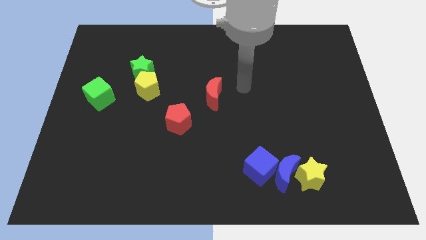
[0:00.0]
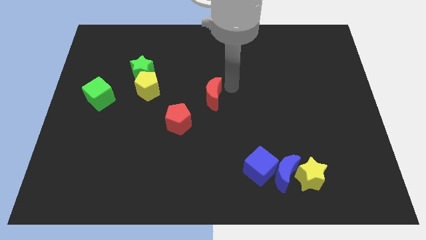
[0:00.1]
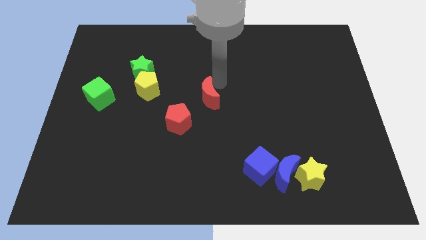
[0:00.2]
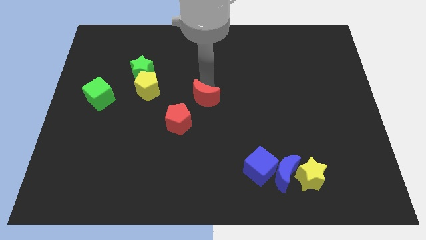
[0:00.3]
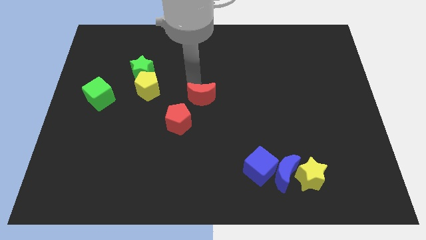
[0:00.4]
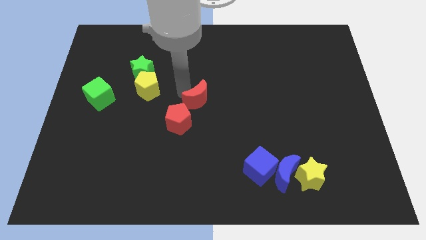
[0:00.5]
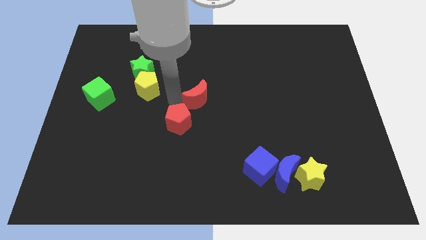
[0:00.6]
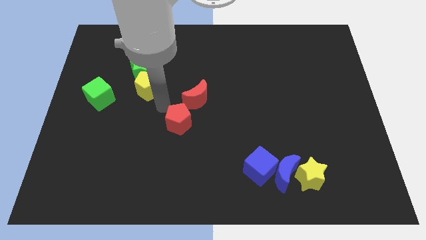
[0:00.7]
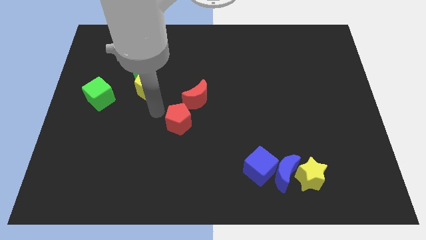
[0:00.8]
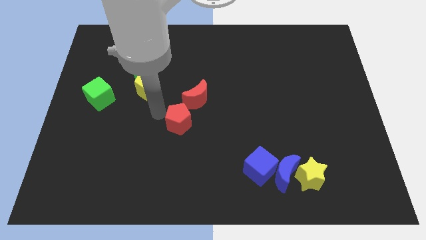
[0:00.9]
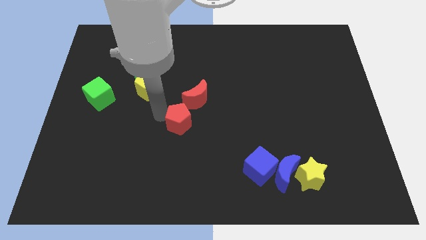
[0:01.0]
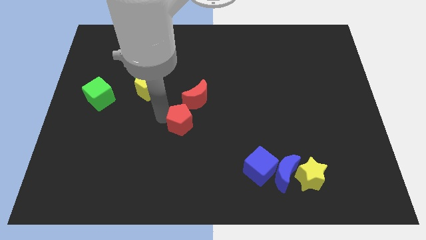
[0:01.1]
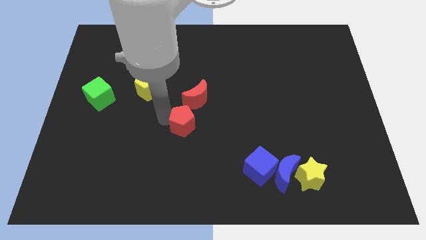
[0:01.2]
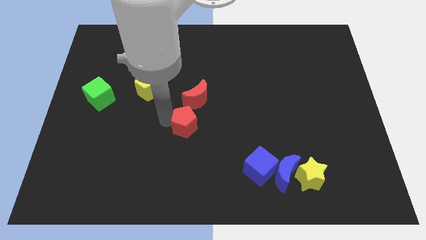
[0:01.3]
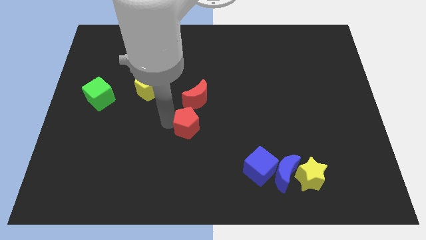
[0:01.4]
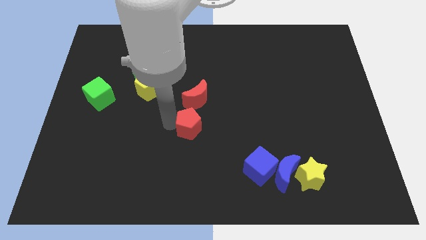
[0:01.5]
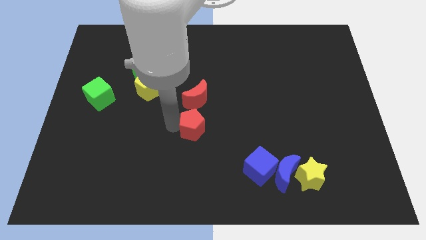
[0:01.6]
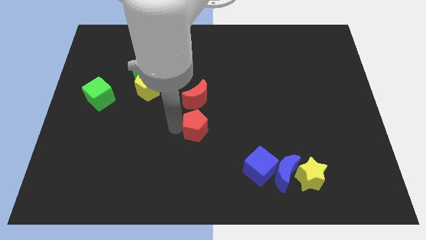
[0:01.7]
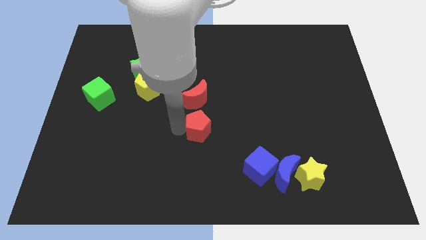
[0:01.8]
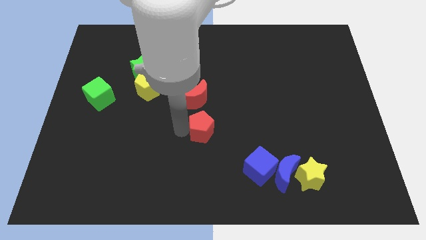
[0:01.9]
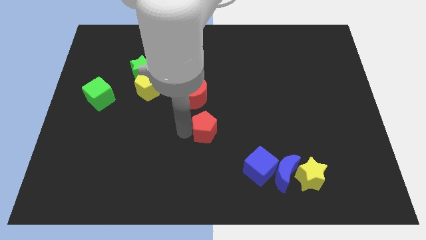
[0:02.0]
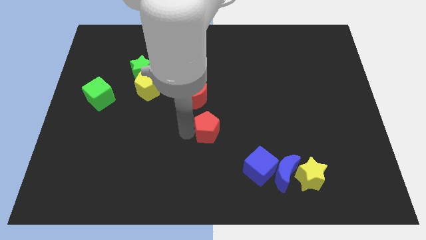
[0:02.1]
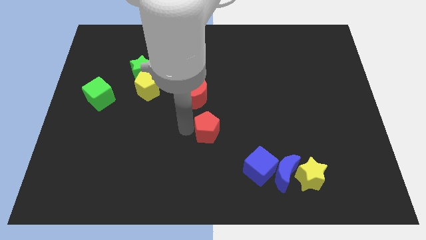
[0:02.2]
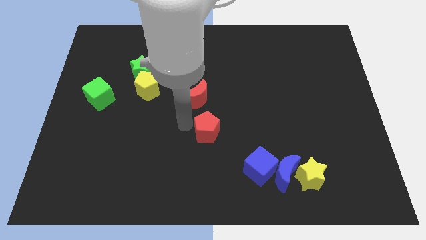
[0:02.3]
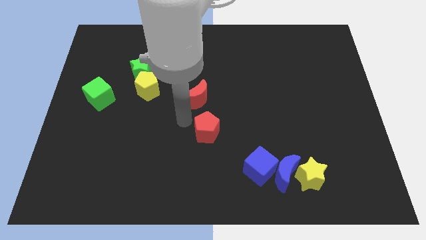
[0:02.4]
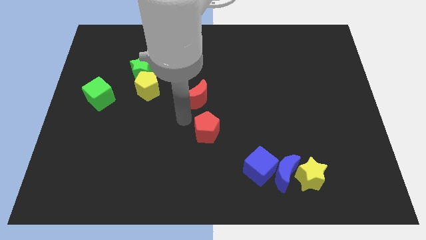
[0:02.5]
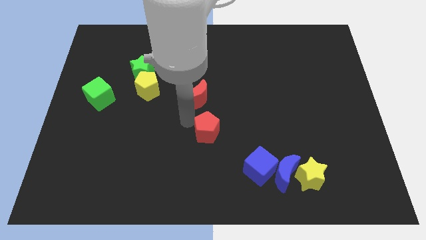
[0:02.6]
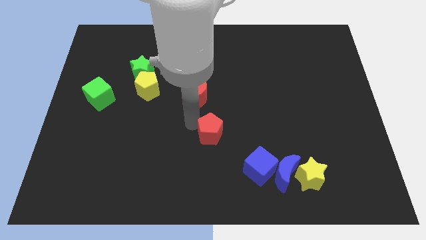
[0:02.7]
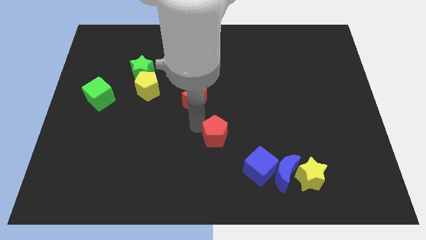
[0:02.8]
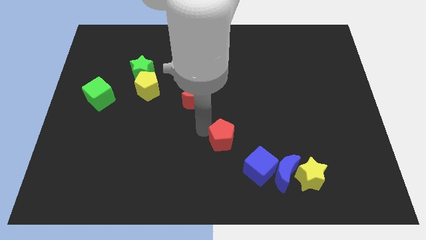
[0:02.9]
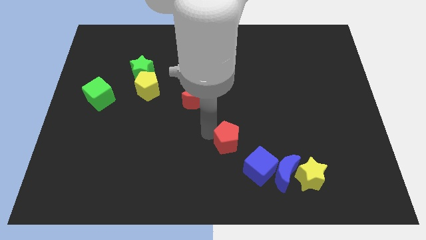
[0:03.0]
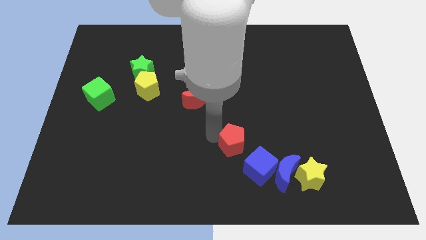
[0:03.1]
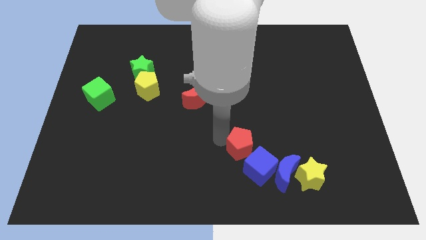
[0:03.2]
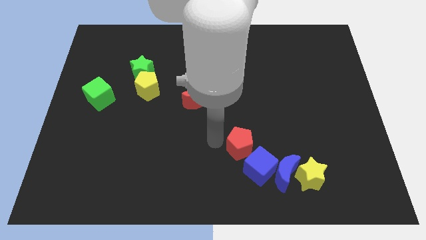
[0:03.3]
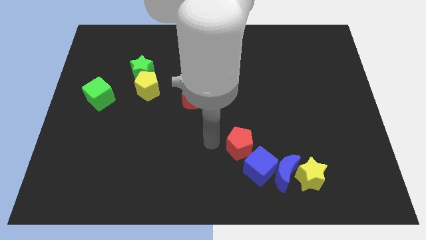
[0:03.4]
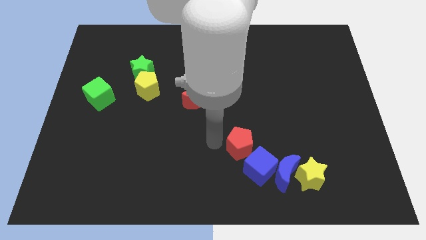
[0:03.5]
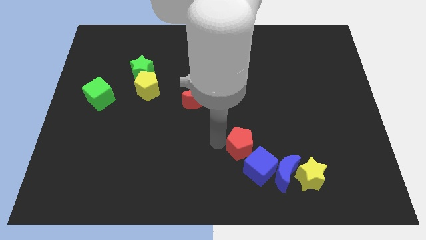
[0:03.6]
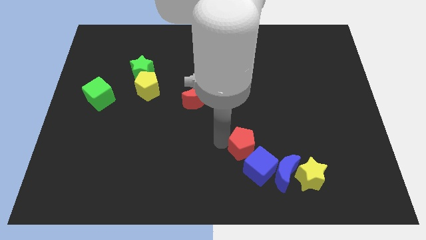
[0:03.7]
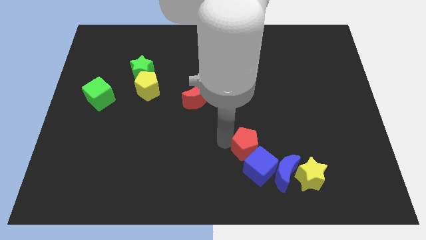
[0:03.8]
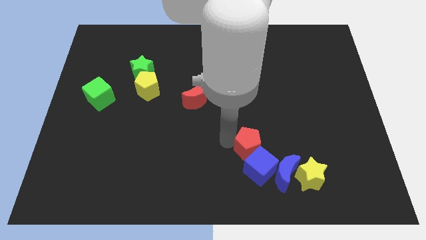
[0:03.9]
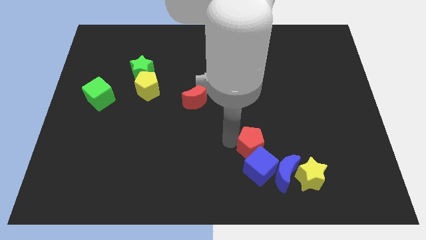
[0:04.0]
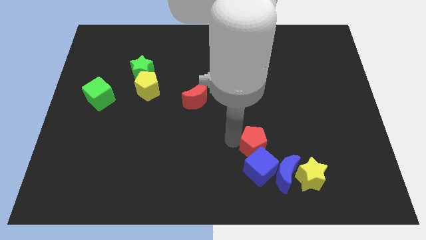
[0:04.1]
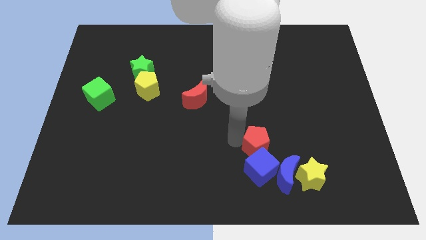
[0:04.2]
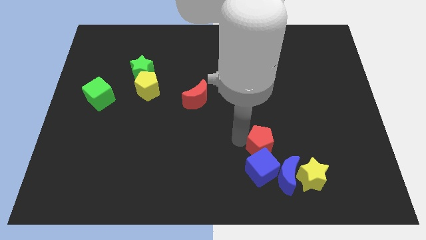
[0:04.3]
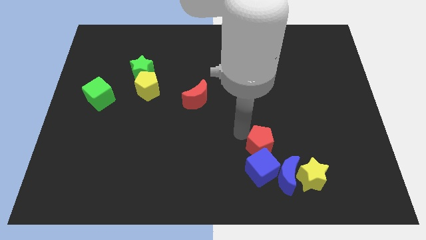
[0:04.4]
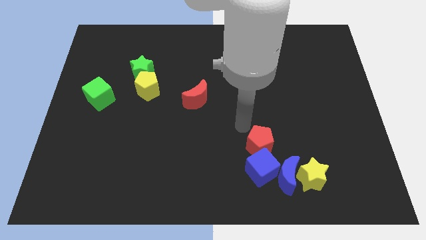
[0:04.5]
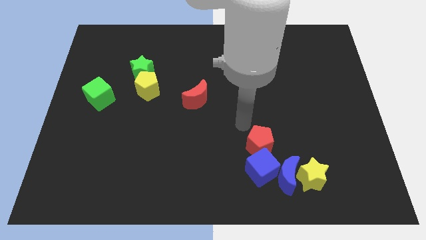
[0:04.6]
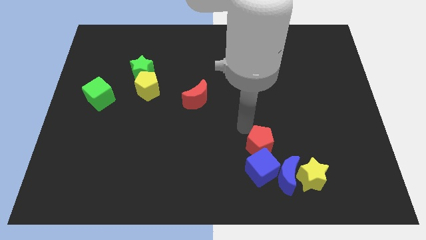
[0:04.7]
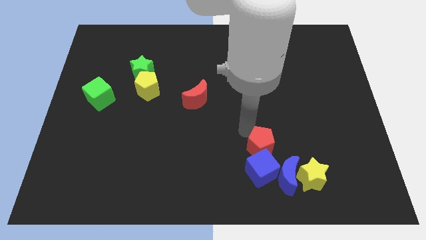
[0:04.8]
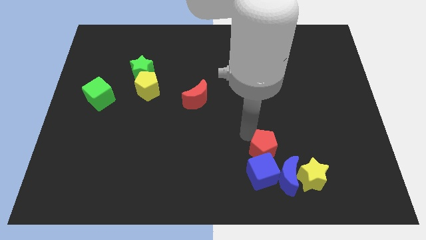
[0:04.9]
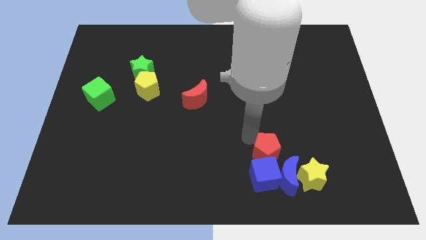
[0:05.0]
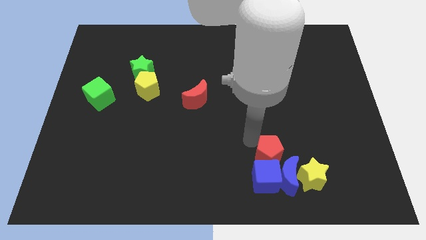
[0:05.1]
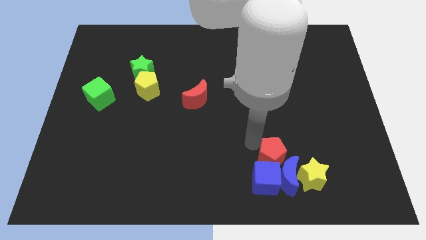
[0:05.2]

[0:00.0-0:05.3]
put the red pentagon to the blue moon

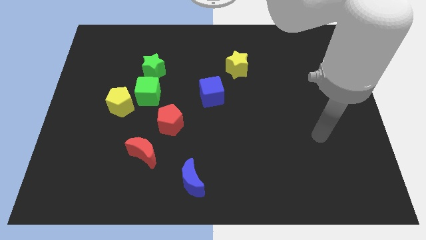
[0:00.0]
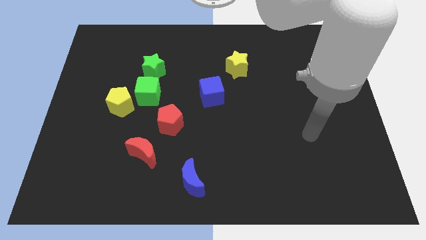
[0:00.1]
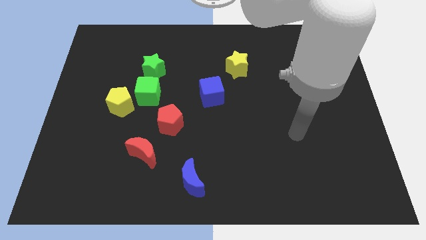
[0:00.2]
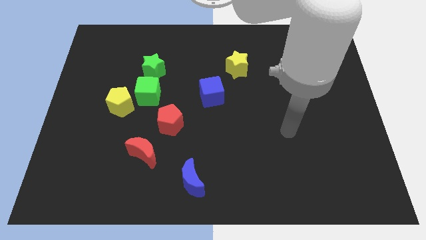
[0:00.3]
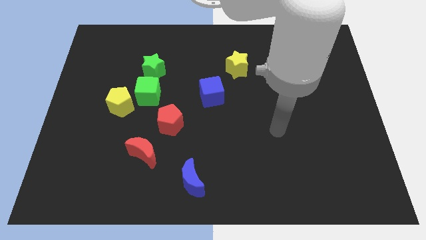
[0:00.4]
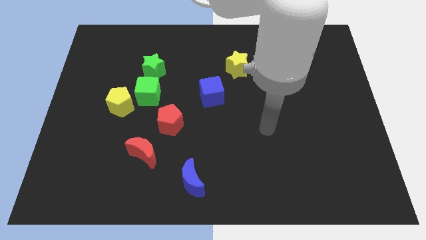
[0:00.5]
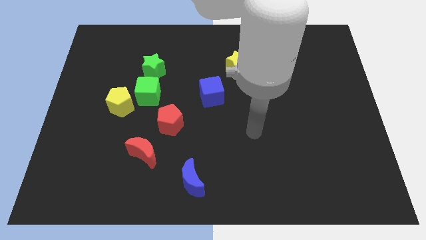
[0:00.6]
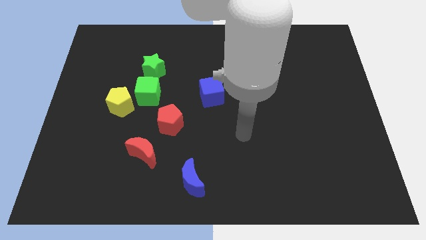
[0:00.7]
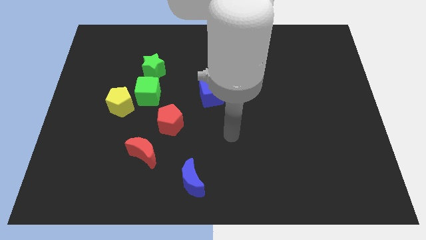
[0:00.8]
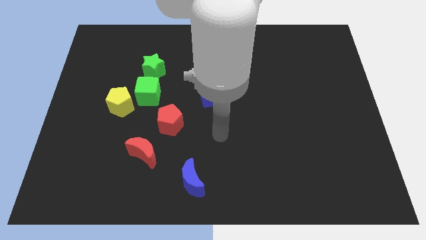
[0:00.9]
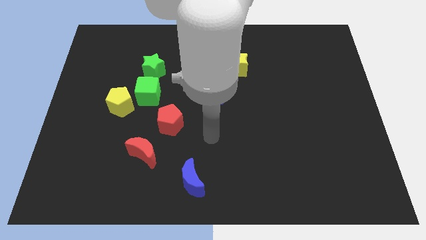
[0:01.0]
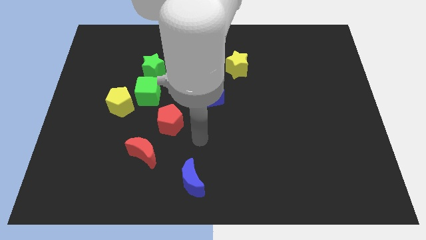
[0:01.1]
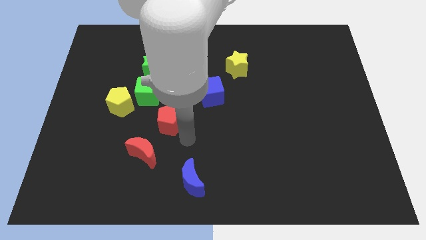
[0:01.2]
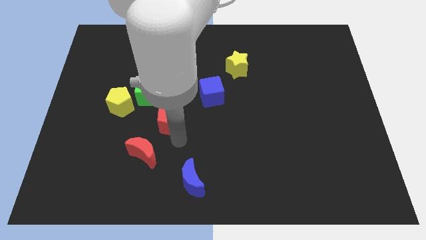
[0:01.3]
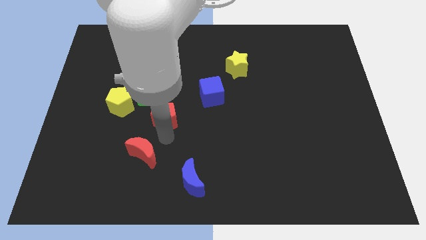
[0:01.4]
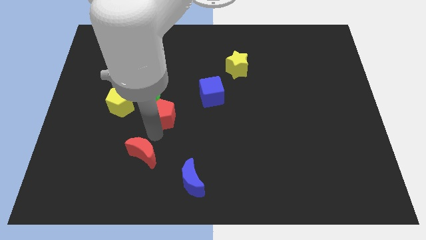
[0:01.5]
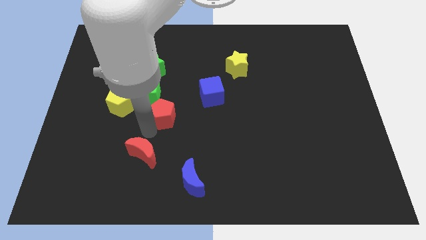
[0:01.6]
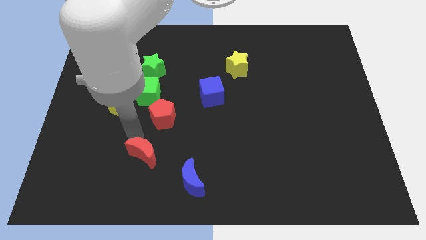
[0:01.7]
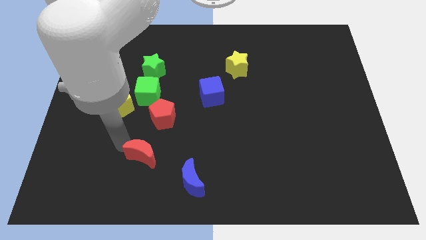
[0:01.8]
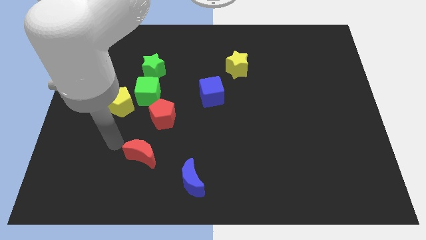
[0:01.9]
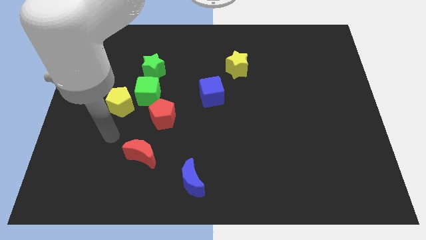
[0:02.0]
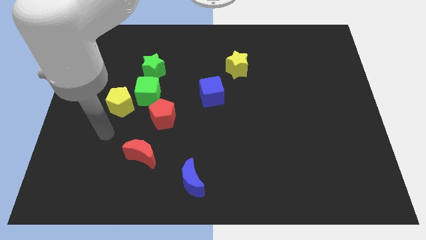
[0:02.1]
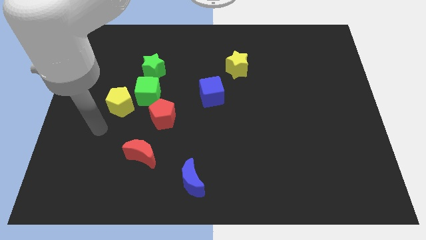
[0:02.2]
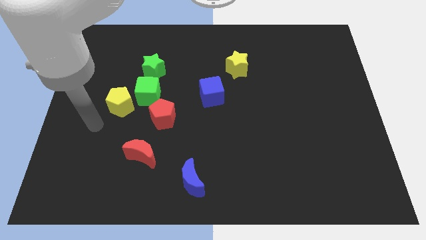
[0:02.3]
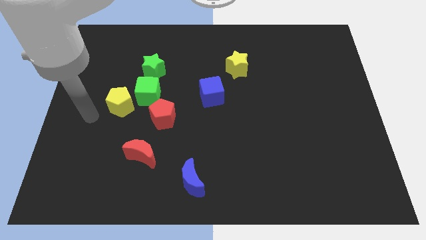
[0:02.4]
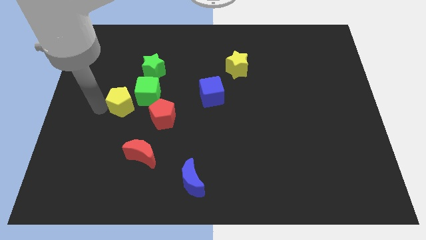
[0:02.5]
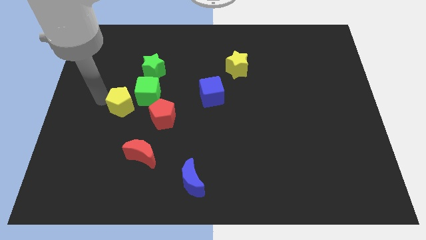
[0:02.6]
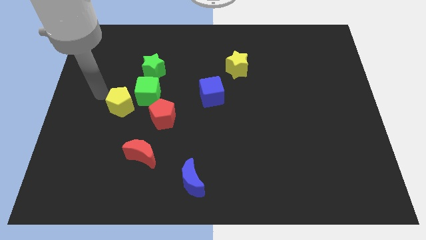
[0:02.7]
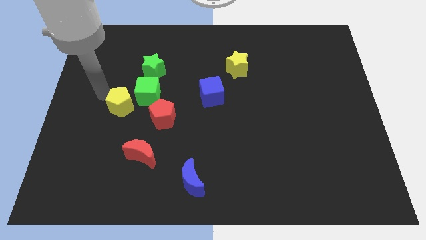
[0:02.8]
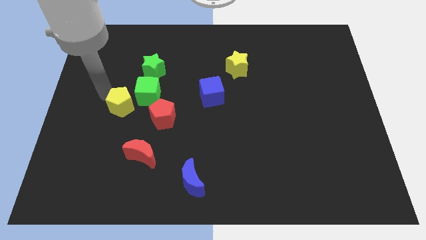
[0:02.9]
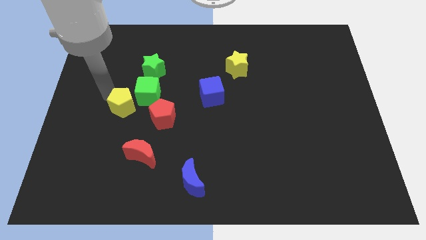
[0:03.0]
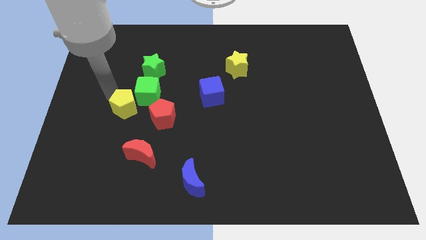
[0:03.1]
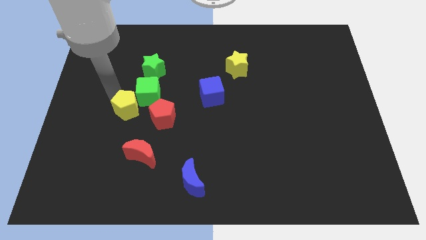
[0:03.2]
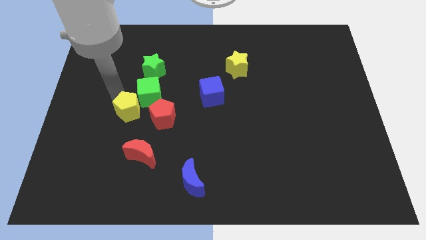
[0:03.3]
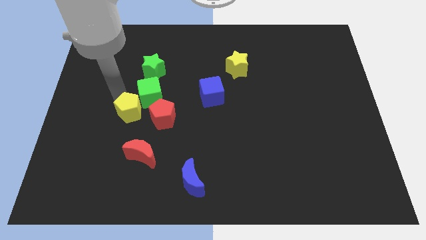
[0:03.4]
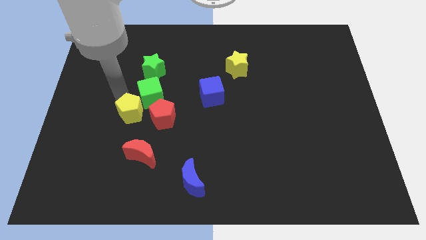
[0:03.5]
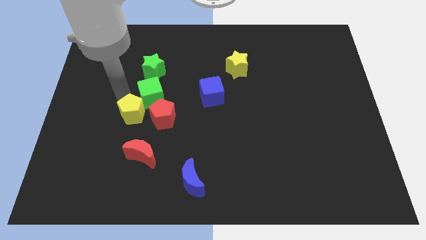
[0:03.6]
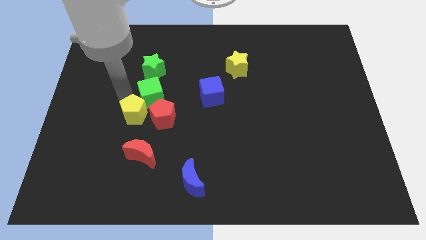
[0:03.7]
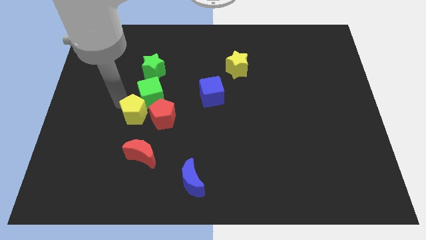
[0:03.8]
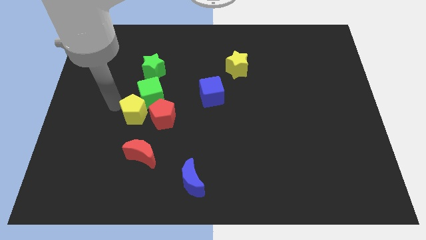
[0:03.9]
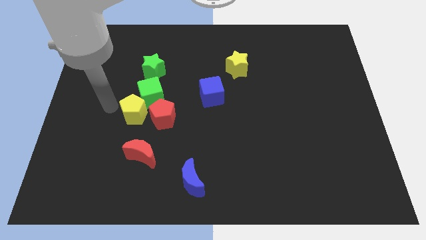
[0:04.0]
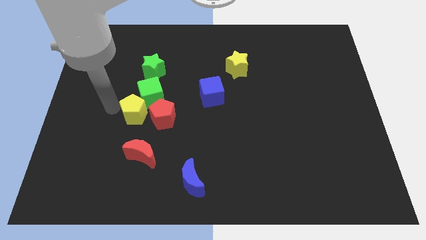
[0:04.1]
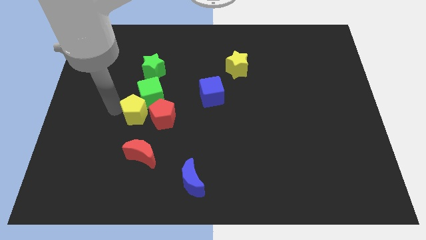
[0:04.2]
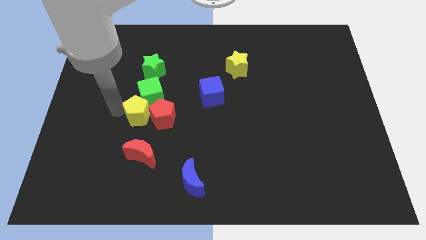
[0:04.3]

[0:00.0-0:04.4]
slide the yellow pentagon next to the red pentagon
